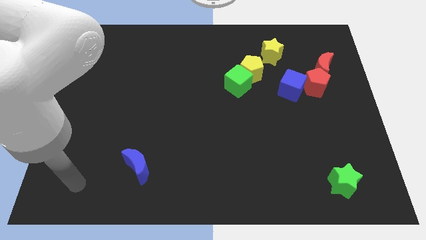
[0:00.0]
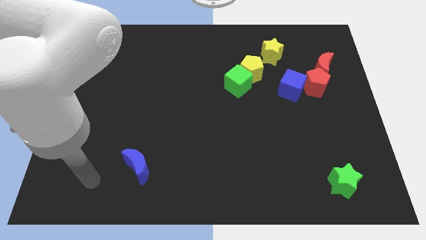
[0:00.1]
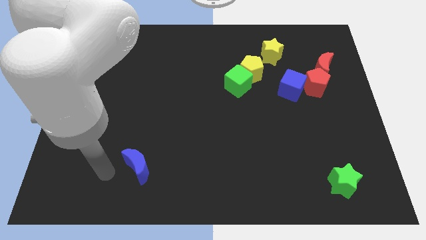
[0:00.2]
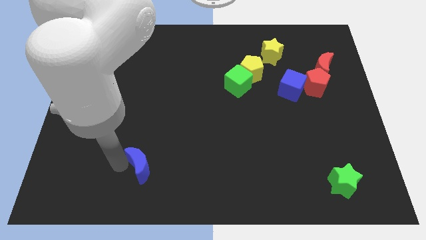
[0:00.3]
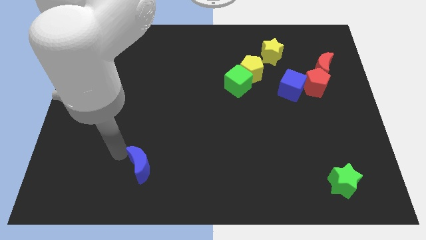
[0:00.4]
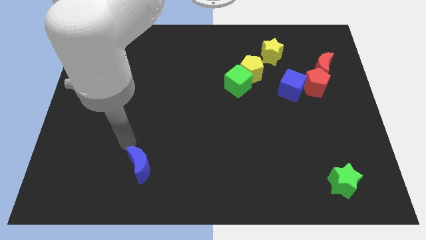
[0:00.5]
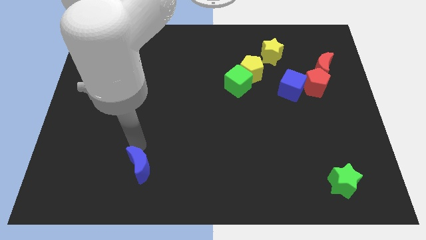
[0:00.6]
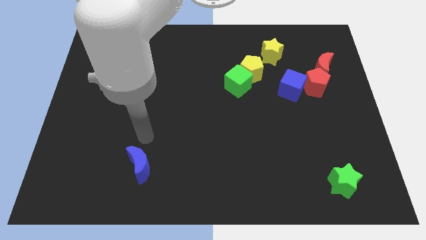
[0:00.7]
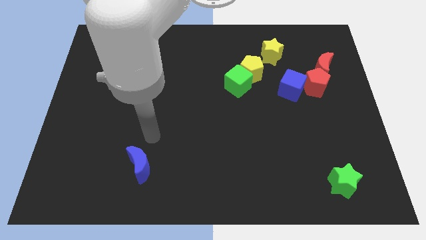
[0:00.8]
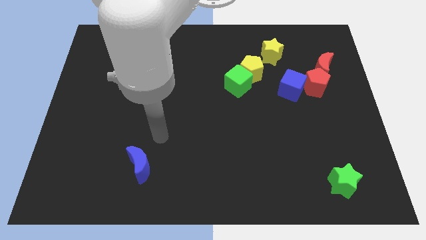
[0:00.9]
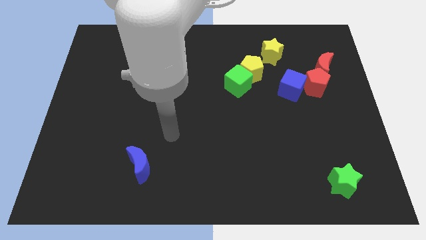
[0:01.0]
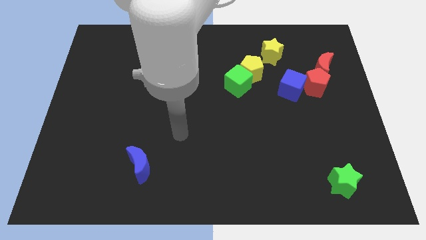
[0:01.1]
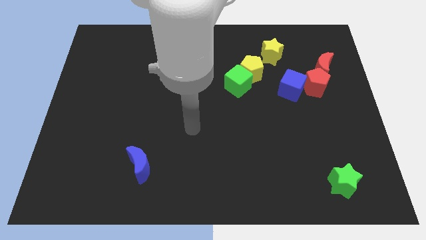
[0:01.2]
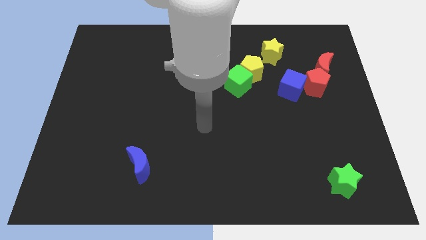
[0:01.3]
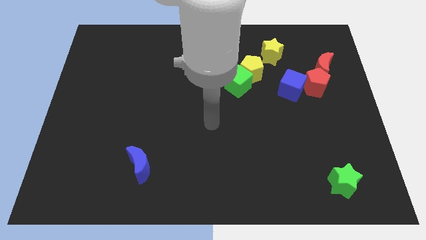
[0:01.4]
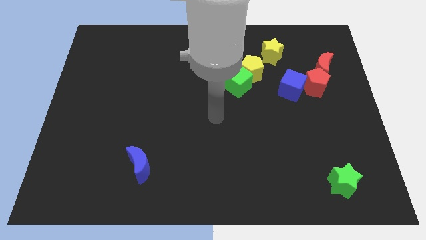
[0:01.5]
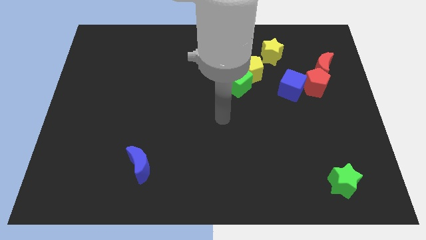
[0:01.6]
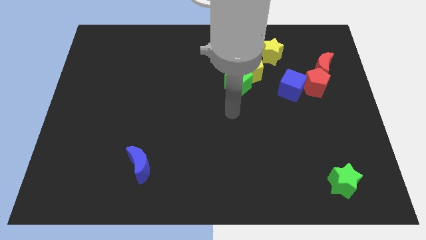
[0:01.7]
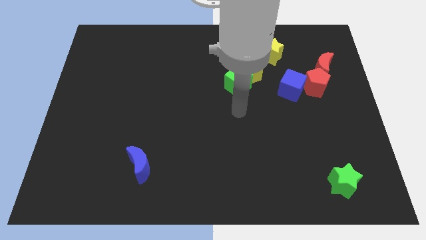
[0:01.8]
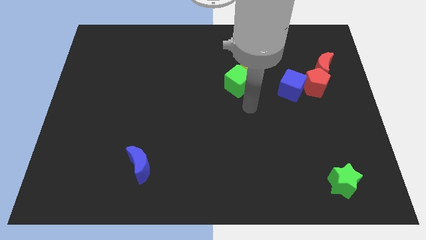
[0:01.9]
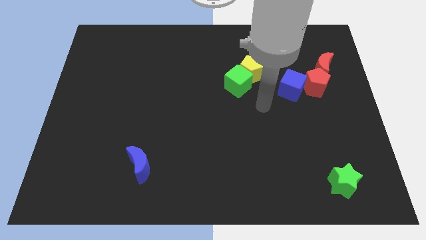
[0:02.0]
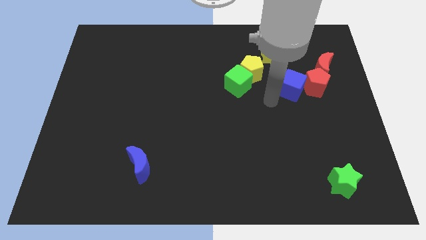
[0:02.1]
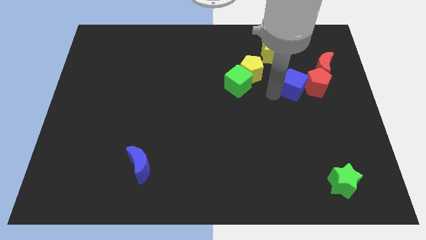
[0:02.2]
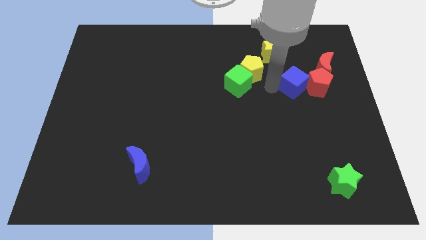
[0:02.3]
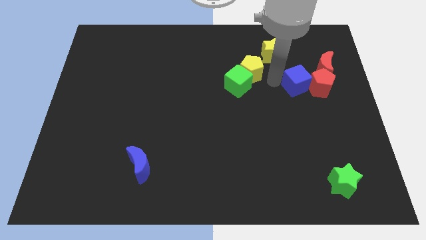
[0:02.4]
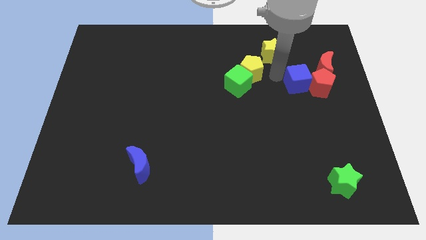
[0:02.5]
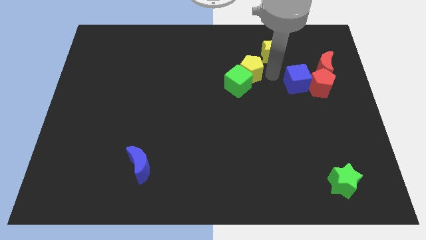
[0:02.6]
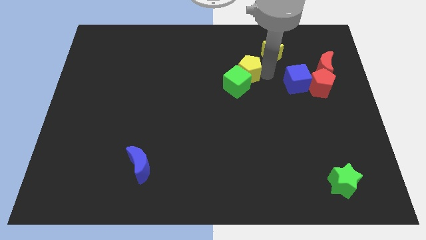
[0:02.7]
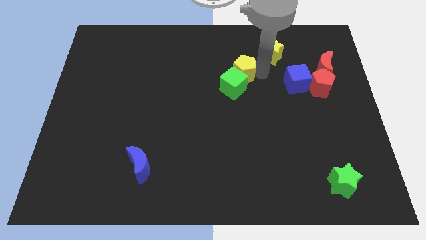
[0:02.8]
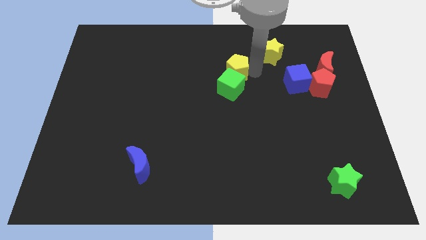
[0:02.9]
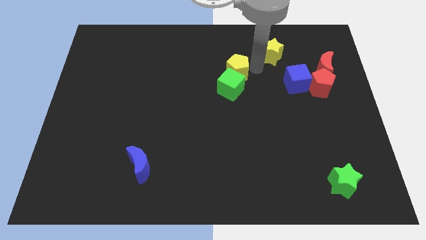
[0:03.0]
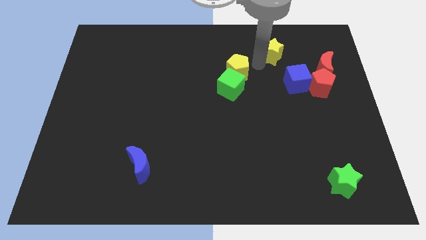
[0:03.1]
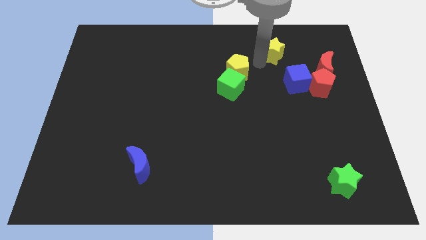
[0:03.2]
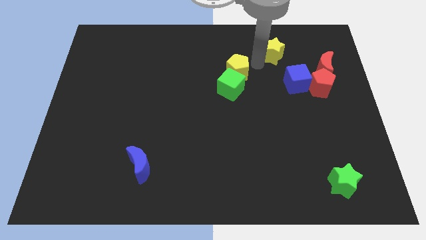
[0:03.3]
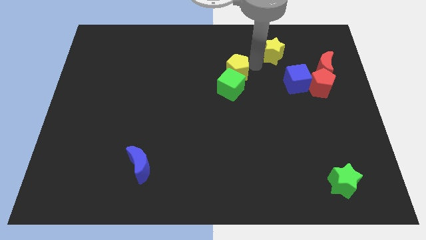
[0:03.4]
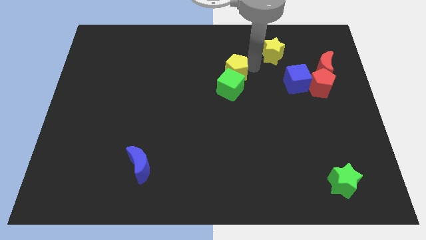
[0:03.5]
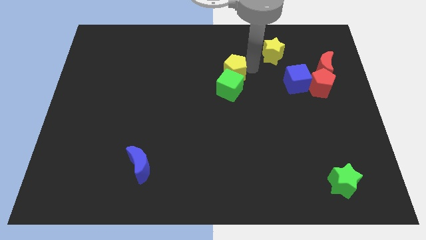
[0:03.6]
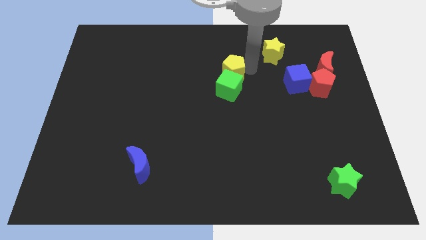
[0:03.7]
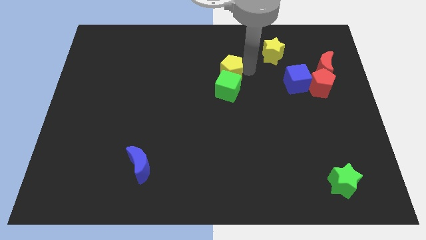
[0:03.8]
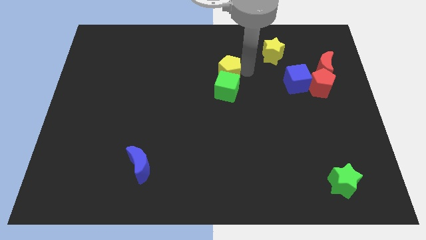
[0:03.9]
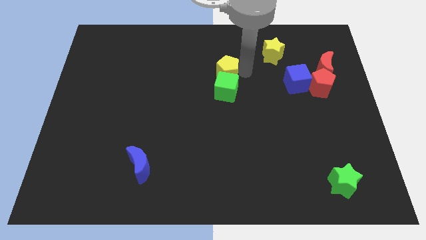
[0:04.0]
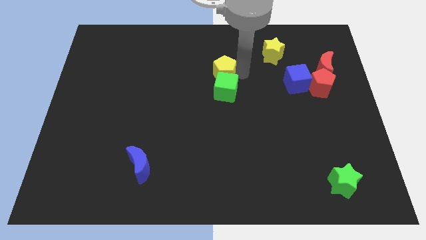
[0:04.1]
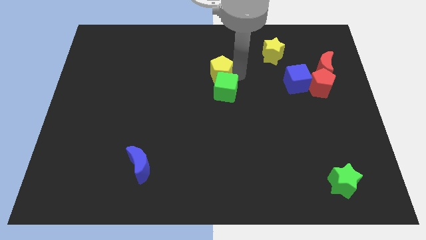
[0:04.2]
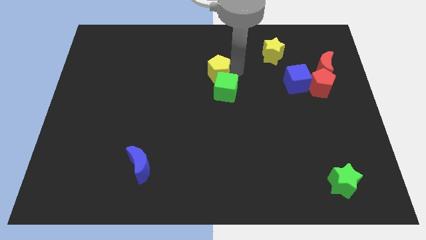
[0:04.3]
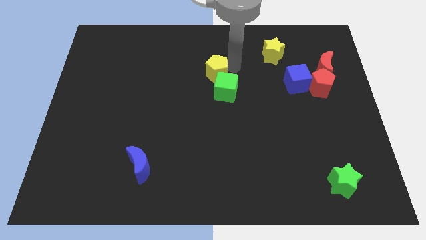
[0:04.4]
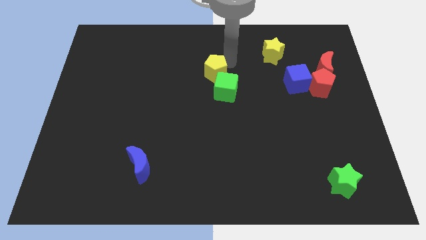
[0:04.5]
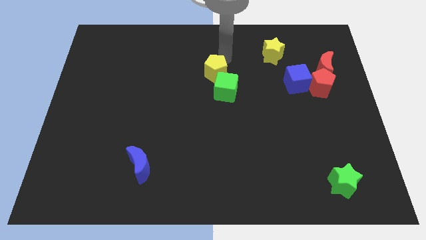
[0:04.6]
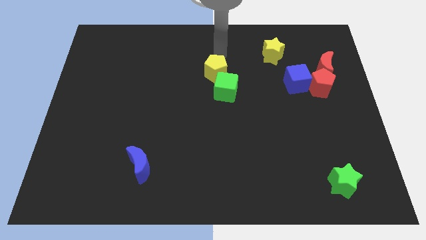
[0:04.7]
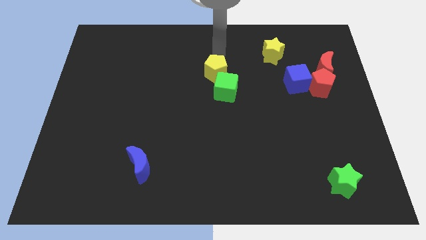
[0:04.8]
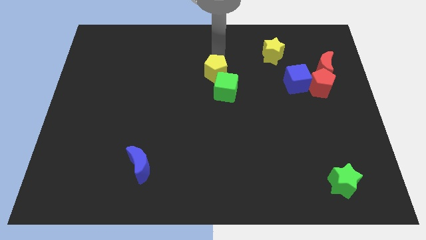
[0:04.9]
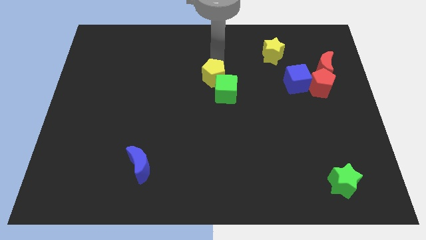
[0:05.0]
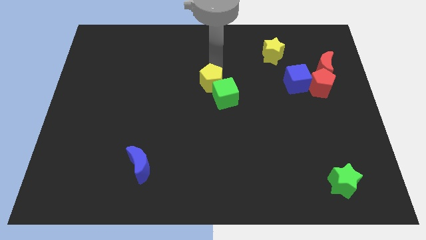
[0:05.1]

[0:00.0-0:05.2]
move the yellow pentagon downwards and left diagonally a little bit

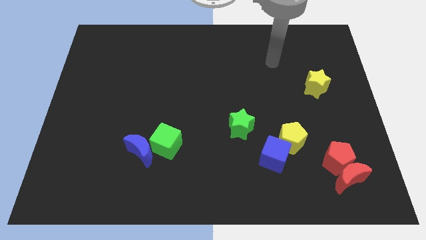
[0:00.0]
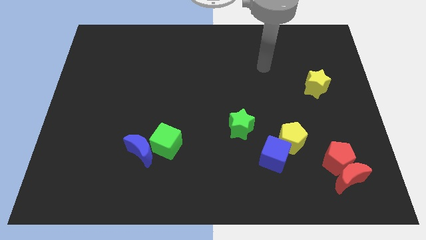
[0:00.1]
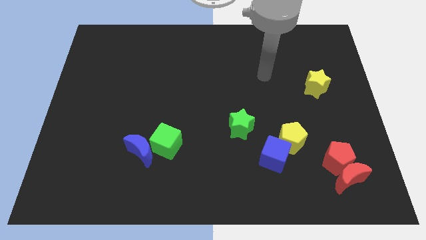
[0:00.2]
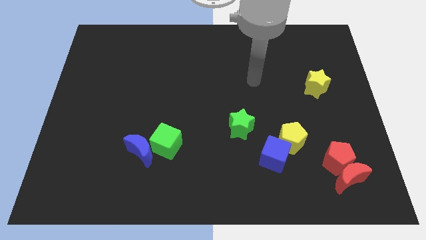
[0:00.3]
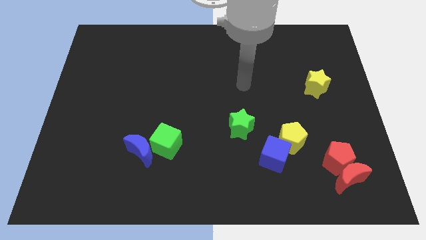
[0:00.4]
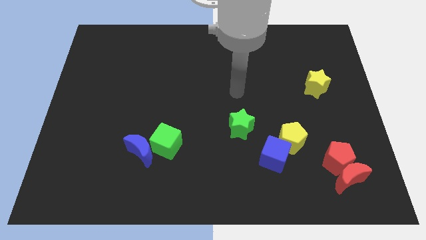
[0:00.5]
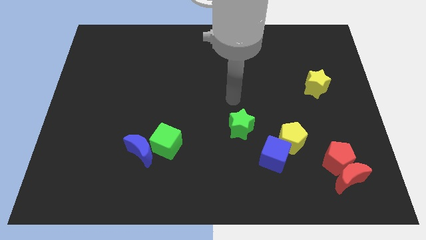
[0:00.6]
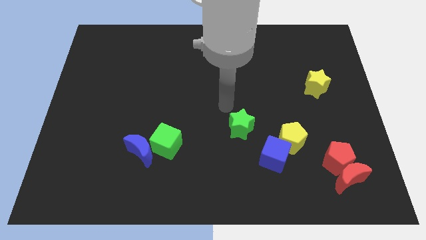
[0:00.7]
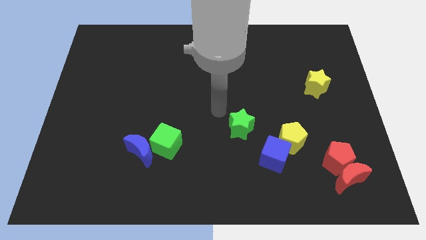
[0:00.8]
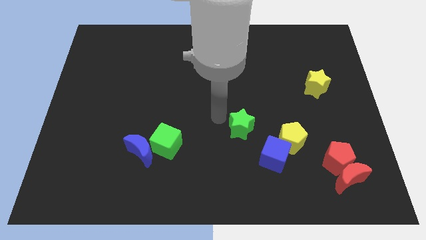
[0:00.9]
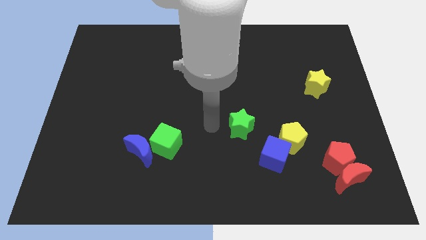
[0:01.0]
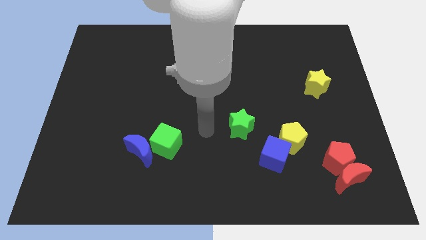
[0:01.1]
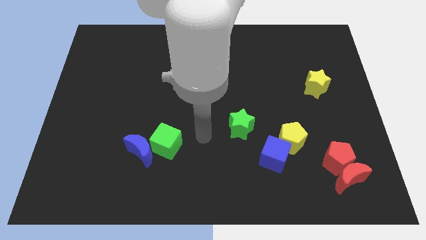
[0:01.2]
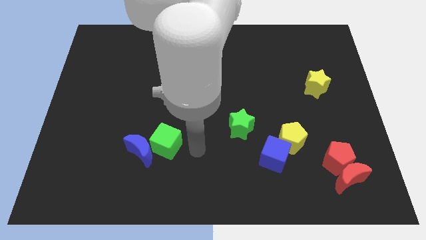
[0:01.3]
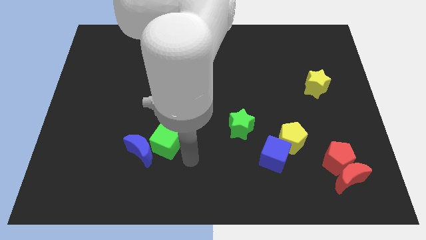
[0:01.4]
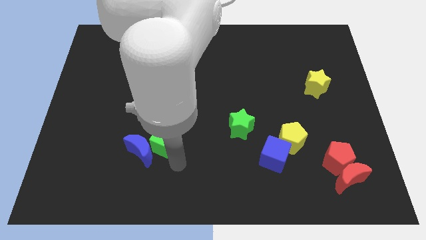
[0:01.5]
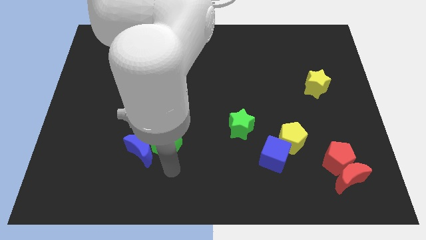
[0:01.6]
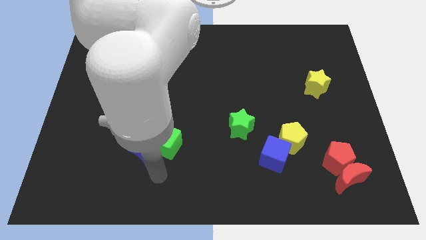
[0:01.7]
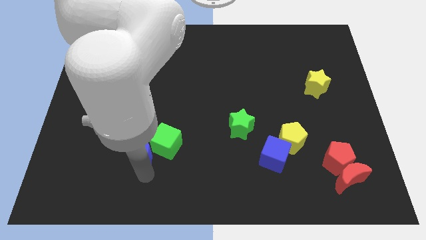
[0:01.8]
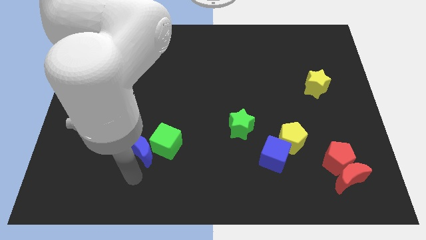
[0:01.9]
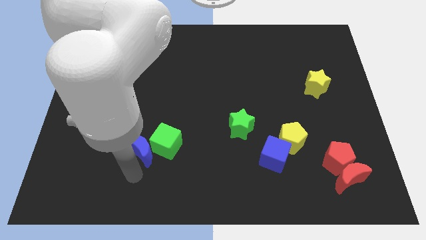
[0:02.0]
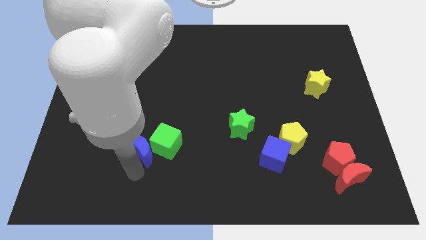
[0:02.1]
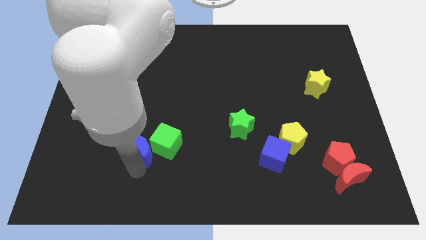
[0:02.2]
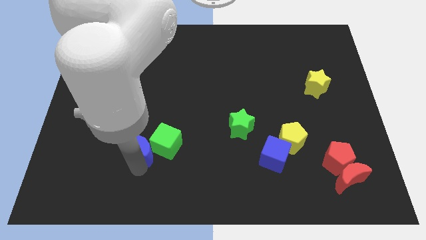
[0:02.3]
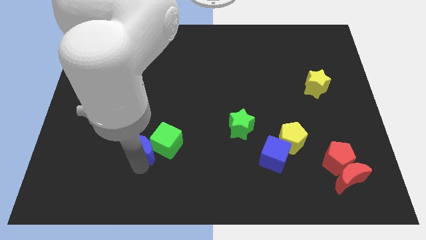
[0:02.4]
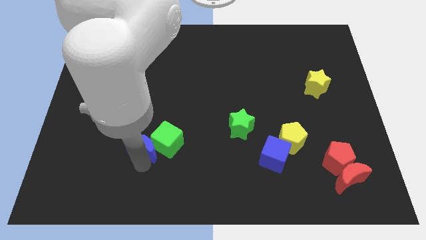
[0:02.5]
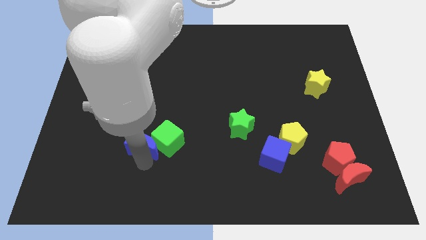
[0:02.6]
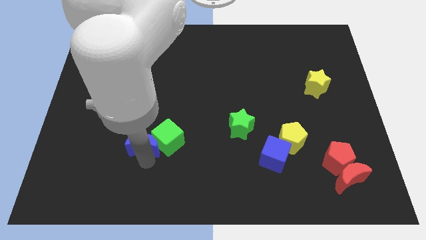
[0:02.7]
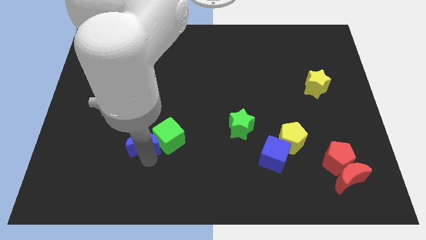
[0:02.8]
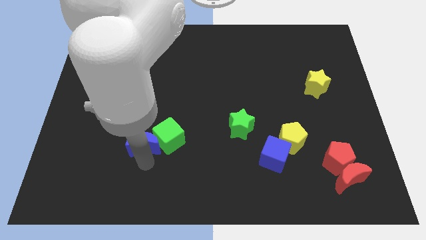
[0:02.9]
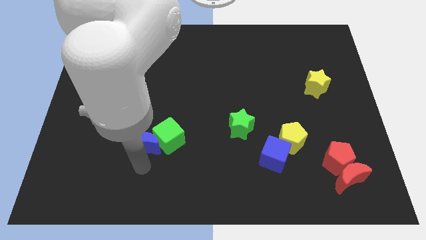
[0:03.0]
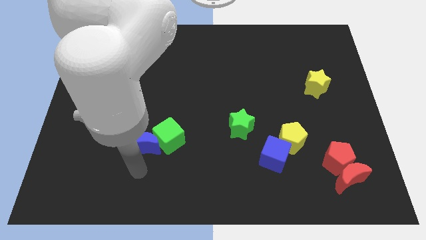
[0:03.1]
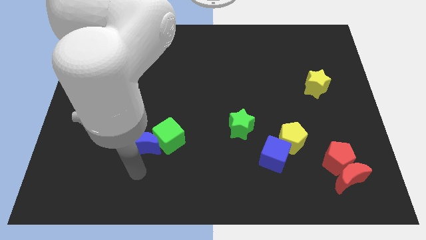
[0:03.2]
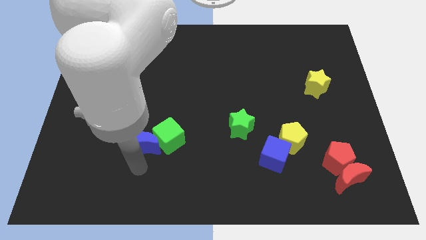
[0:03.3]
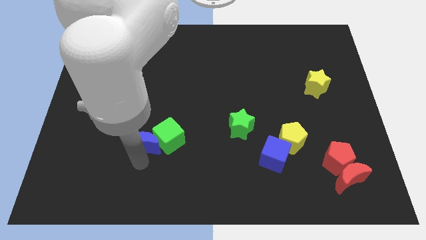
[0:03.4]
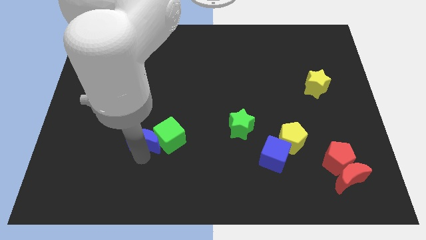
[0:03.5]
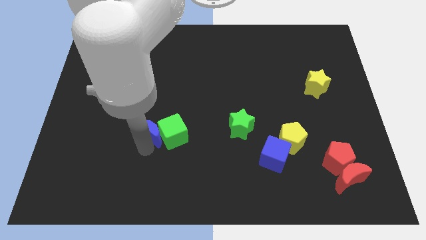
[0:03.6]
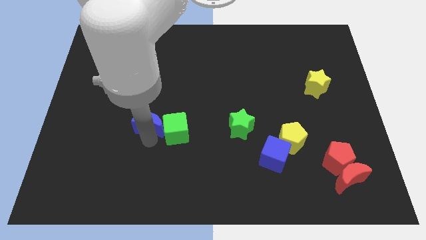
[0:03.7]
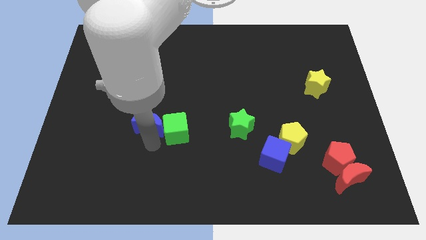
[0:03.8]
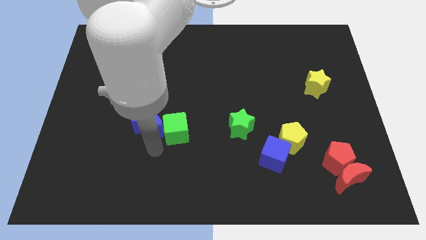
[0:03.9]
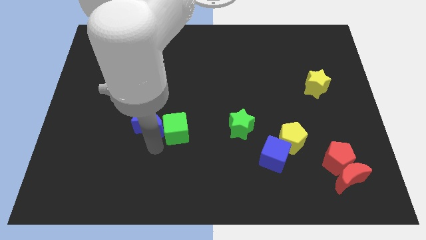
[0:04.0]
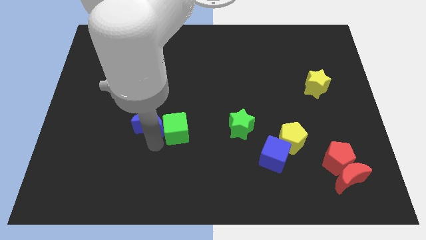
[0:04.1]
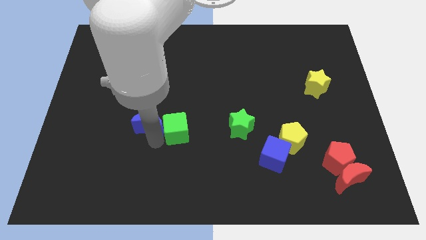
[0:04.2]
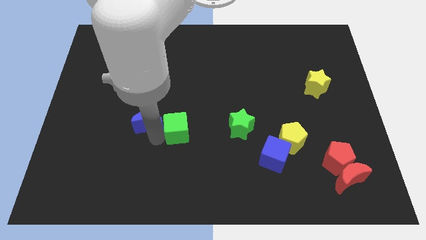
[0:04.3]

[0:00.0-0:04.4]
slightly move the blue moon upwards
